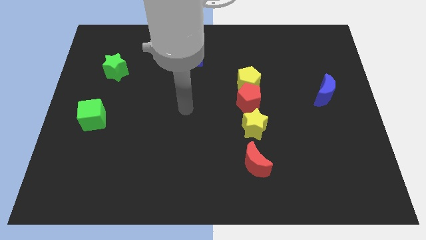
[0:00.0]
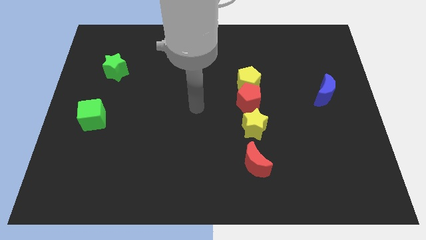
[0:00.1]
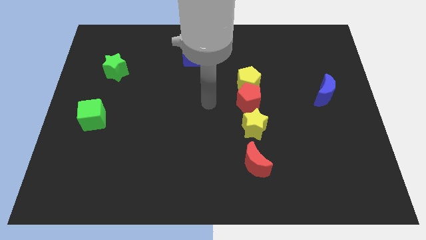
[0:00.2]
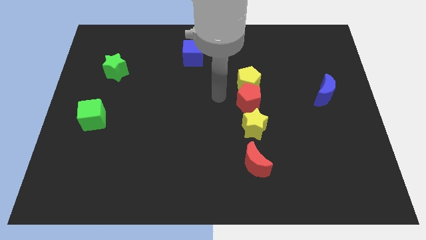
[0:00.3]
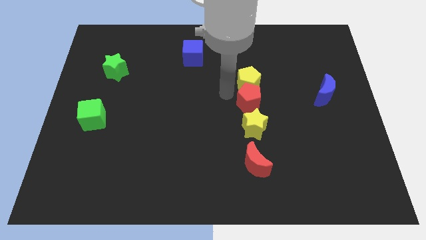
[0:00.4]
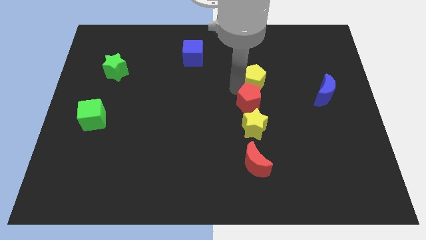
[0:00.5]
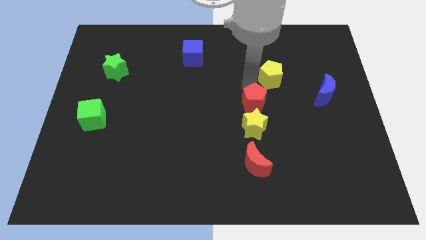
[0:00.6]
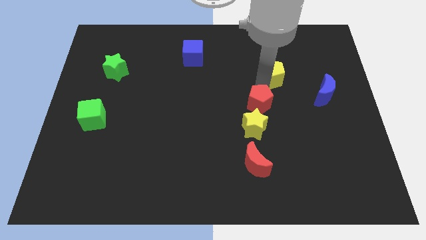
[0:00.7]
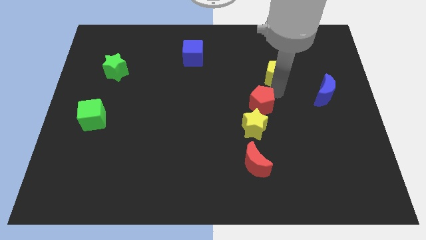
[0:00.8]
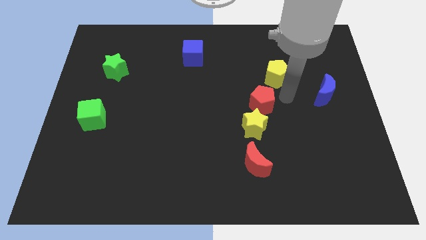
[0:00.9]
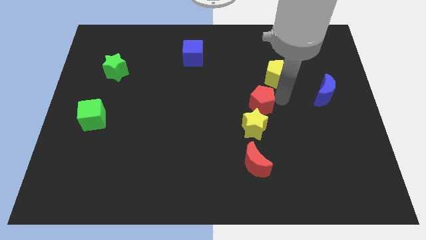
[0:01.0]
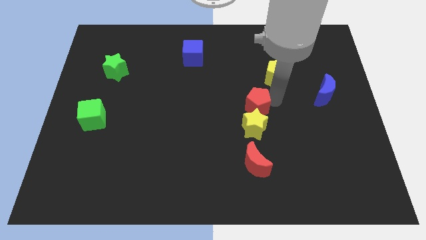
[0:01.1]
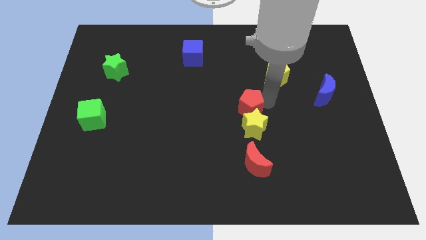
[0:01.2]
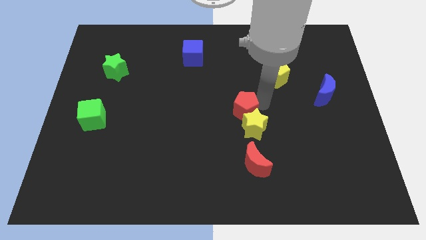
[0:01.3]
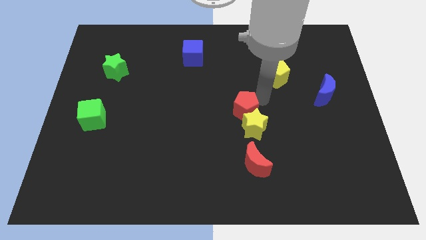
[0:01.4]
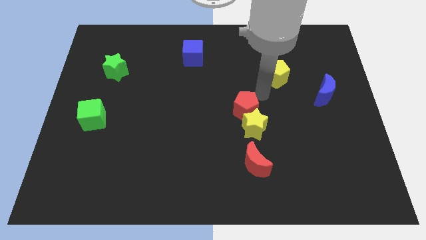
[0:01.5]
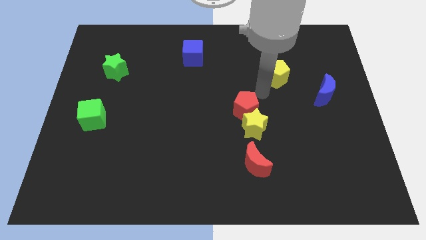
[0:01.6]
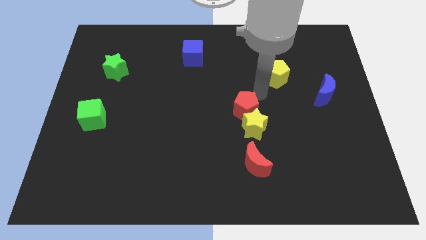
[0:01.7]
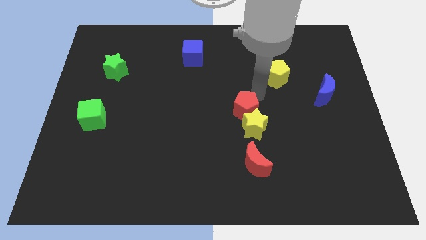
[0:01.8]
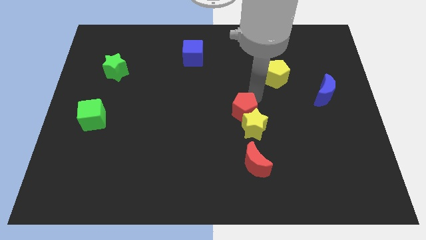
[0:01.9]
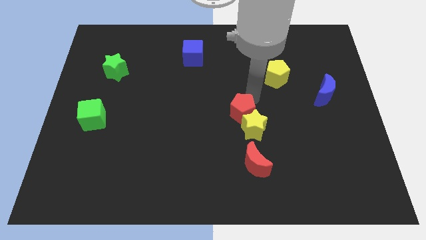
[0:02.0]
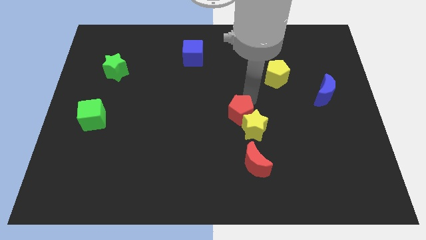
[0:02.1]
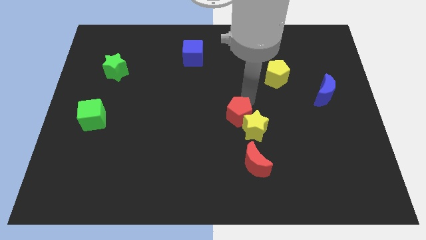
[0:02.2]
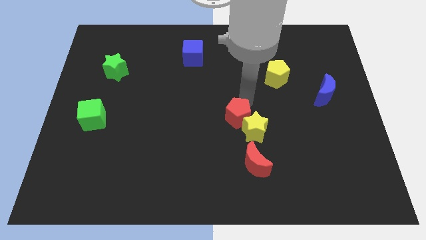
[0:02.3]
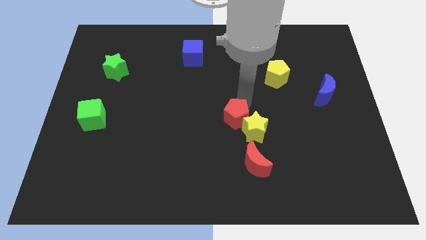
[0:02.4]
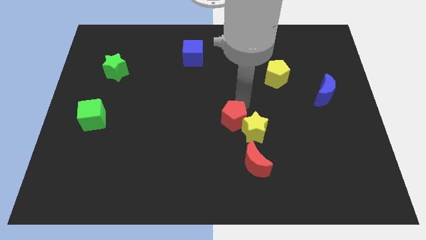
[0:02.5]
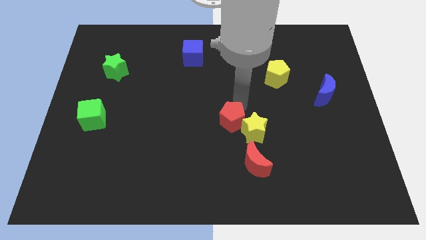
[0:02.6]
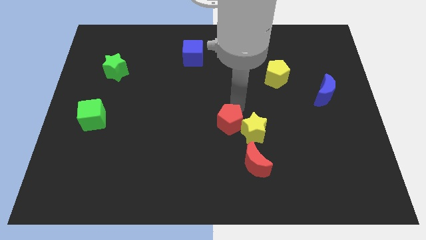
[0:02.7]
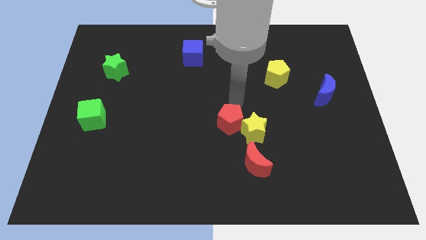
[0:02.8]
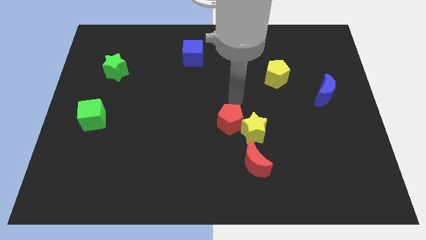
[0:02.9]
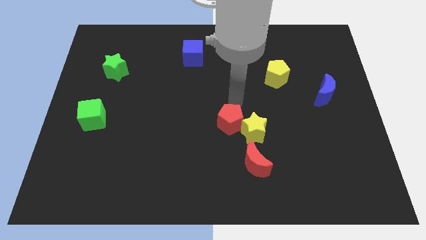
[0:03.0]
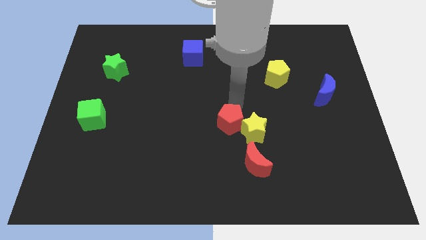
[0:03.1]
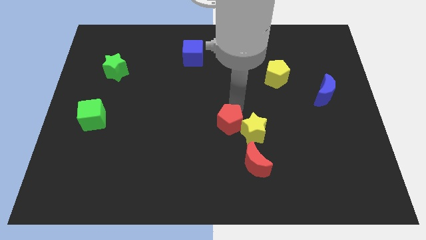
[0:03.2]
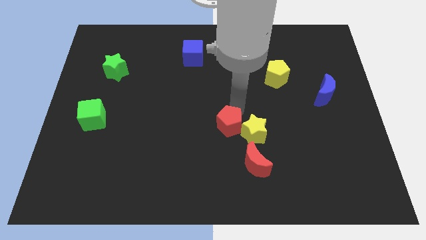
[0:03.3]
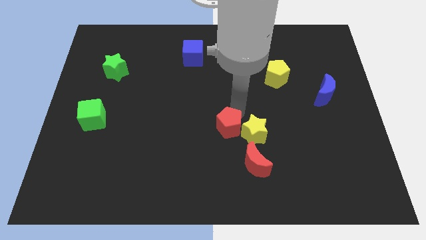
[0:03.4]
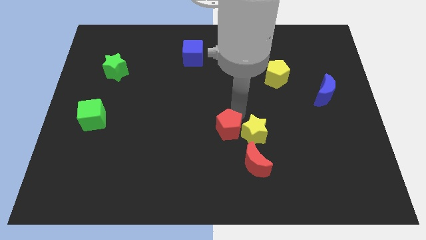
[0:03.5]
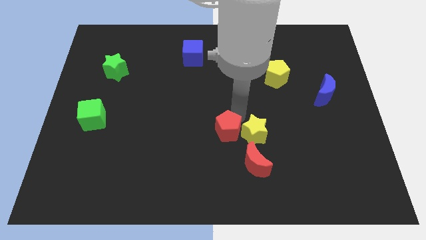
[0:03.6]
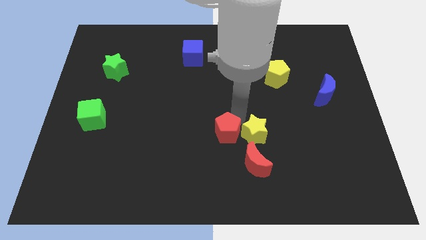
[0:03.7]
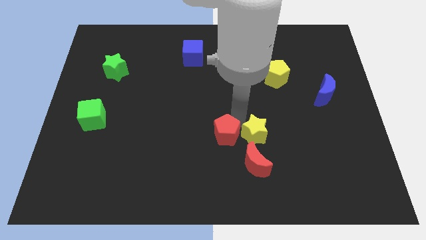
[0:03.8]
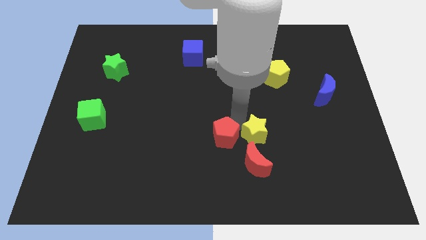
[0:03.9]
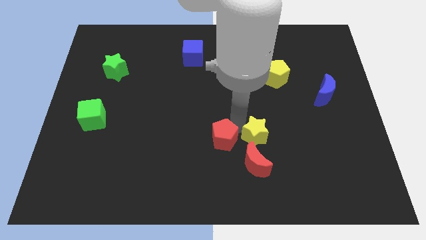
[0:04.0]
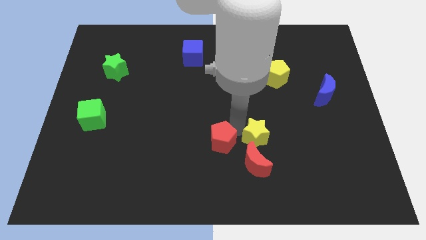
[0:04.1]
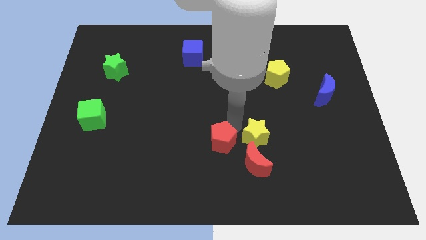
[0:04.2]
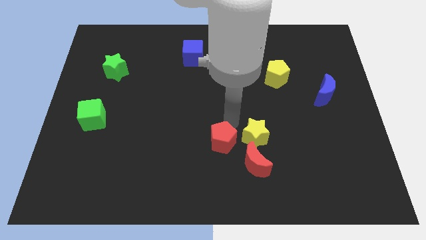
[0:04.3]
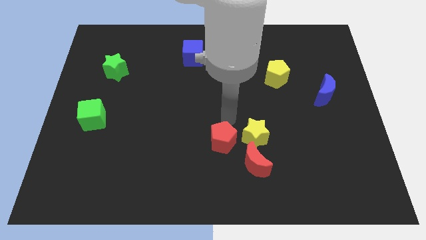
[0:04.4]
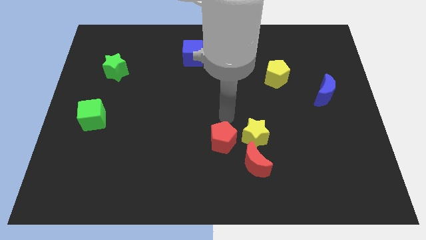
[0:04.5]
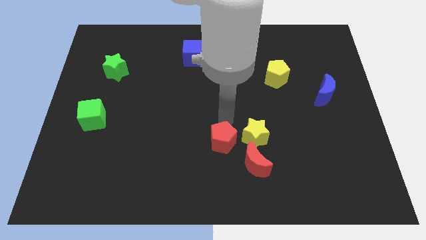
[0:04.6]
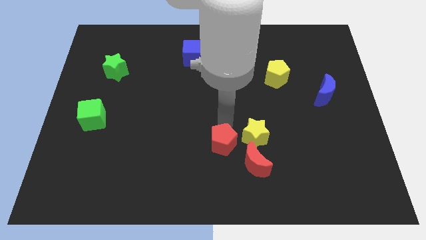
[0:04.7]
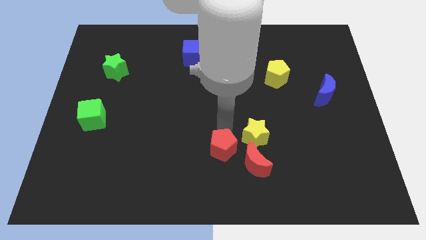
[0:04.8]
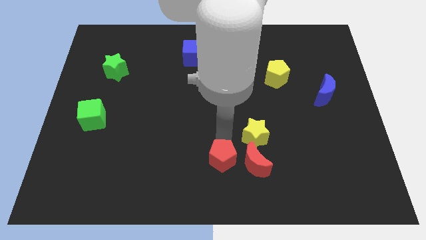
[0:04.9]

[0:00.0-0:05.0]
move the red pentagon to the bottom side

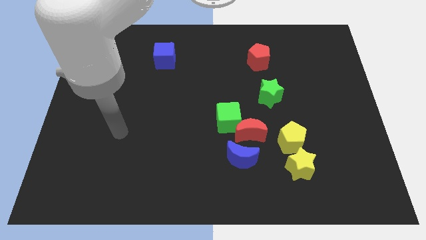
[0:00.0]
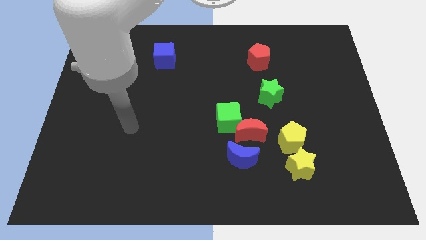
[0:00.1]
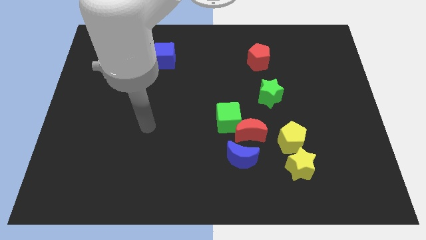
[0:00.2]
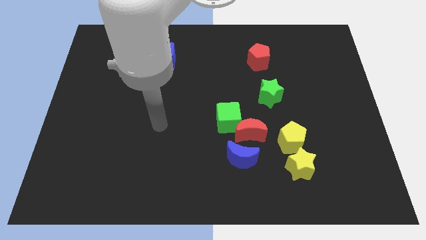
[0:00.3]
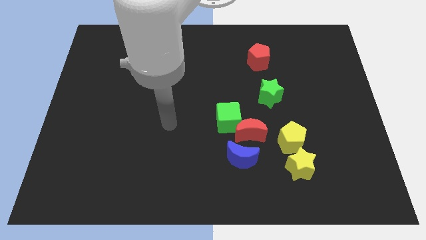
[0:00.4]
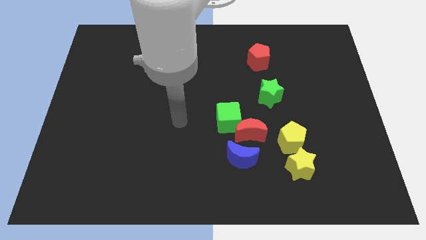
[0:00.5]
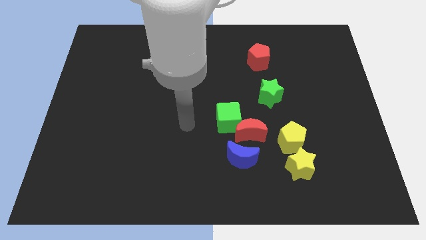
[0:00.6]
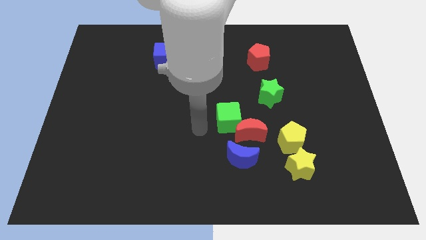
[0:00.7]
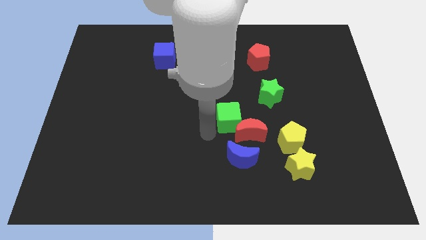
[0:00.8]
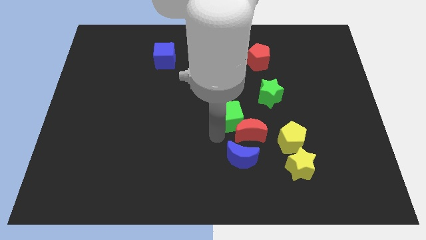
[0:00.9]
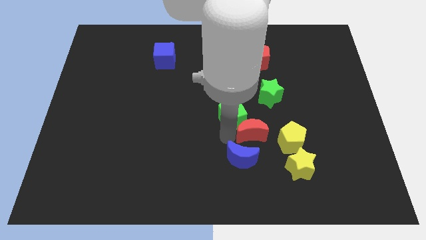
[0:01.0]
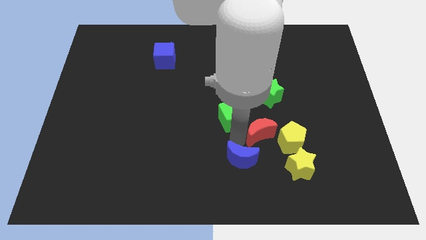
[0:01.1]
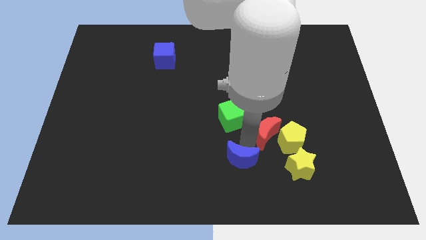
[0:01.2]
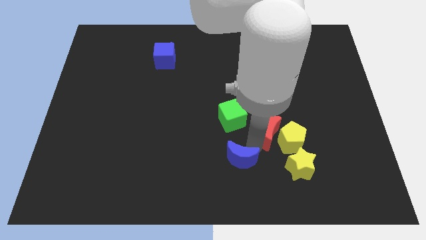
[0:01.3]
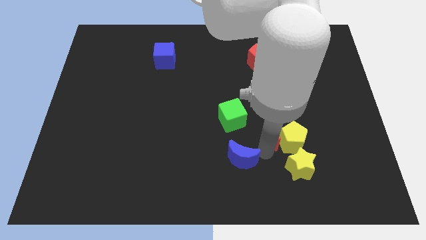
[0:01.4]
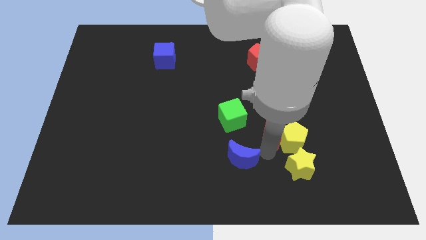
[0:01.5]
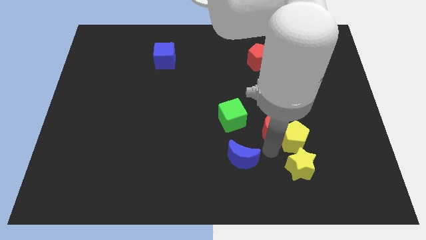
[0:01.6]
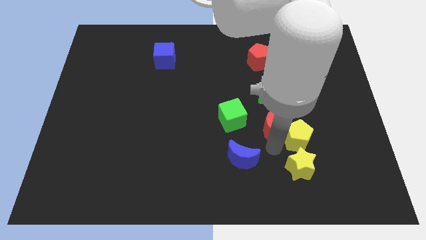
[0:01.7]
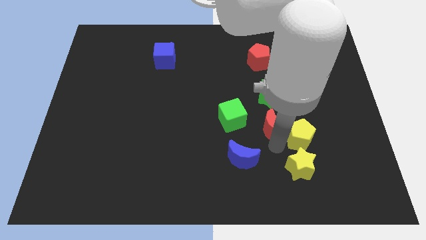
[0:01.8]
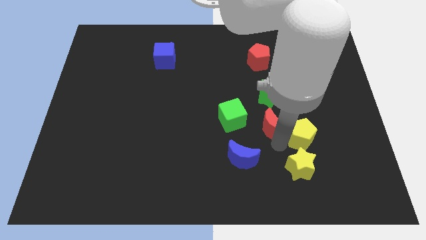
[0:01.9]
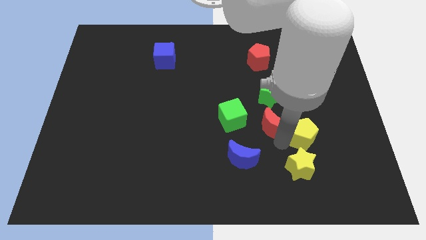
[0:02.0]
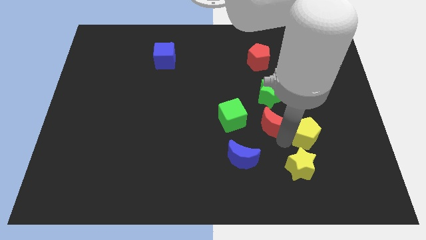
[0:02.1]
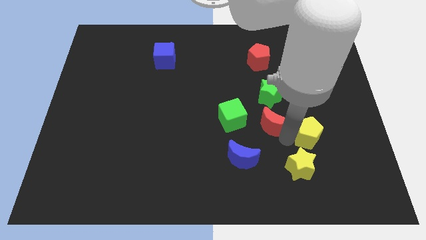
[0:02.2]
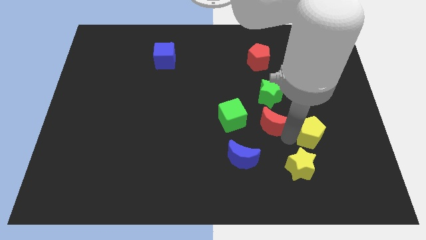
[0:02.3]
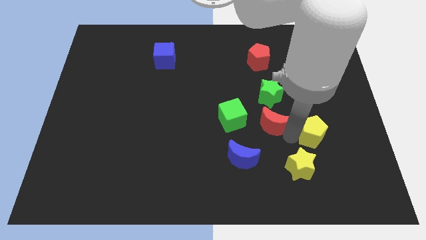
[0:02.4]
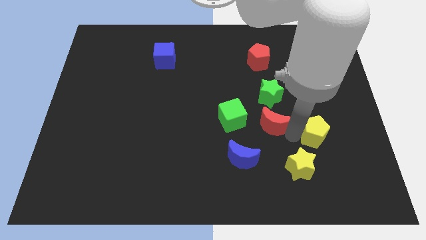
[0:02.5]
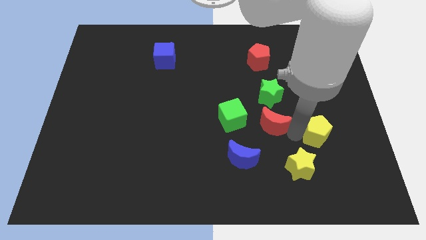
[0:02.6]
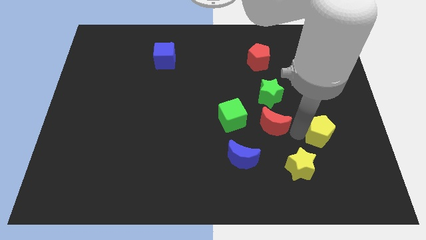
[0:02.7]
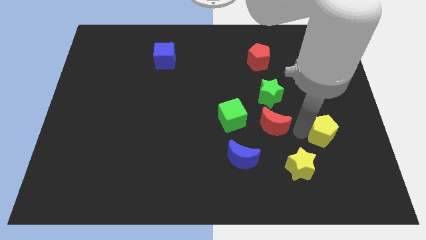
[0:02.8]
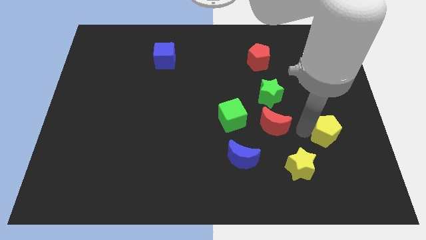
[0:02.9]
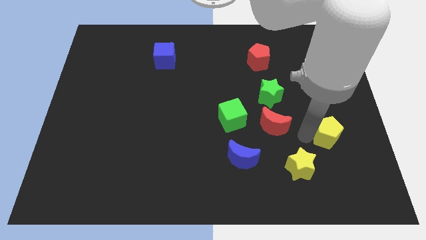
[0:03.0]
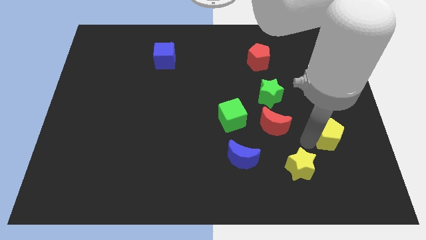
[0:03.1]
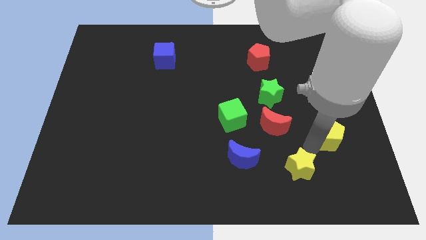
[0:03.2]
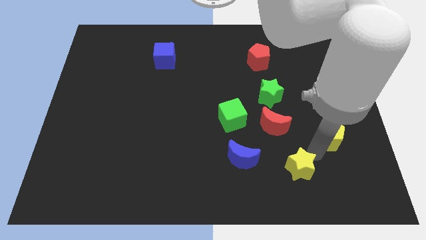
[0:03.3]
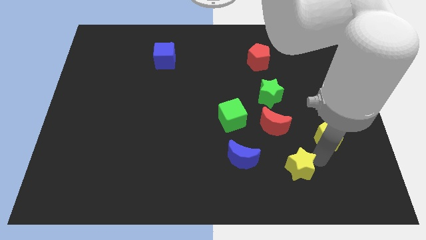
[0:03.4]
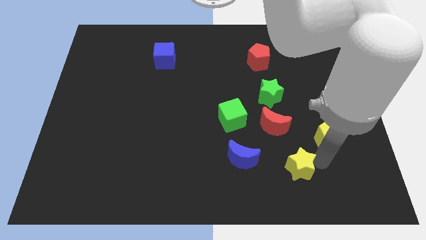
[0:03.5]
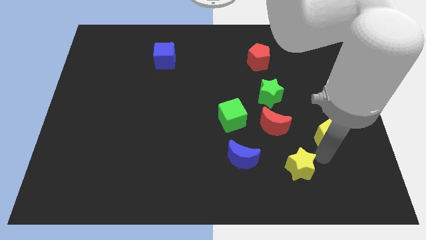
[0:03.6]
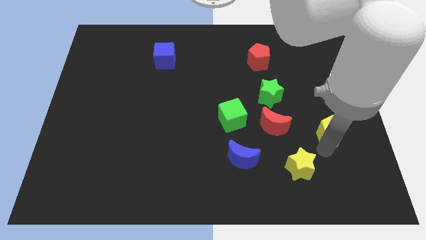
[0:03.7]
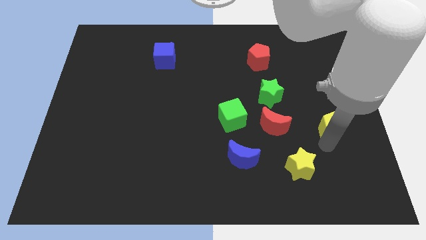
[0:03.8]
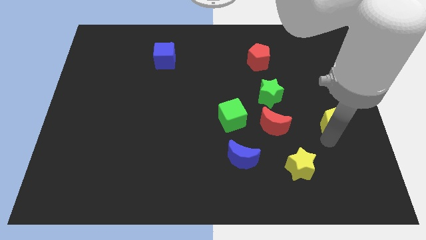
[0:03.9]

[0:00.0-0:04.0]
put the yellow pentagon to the right side of the board
